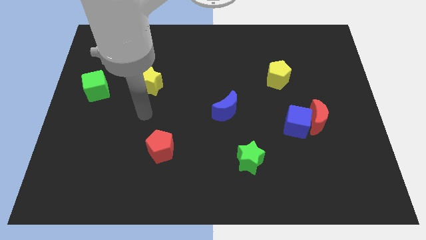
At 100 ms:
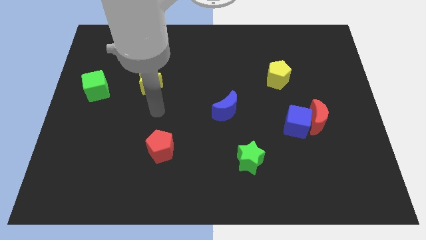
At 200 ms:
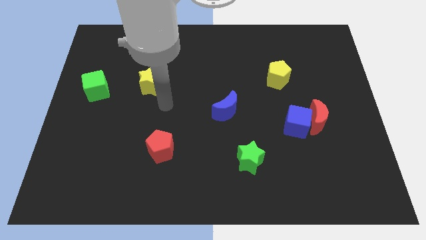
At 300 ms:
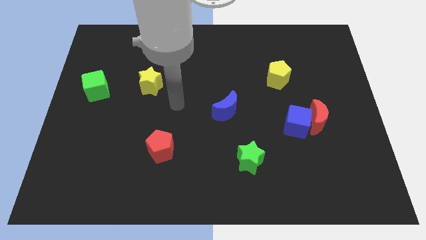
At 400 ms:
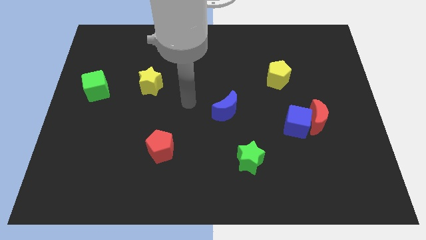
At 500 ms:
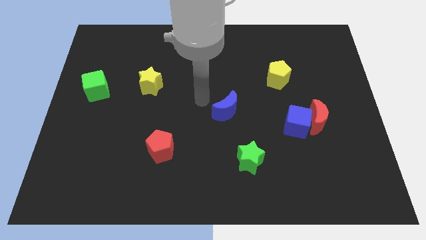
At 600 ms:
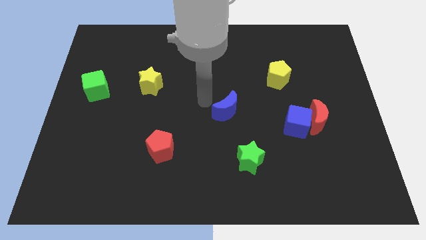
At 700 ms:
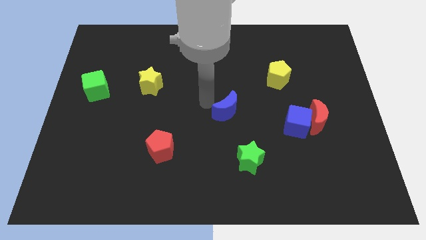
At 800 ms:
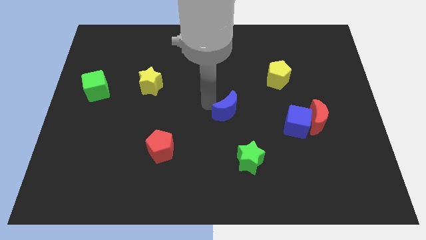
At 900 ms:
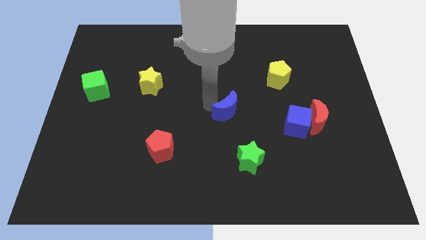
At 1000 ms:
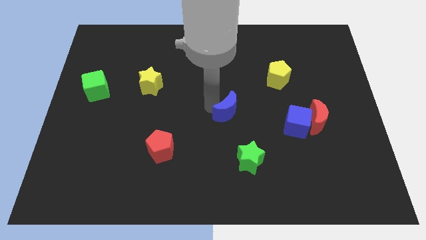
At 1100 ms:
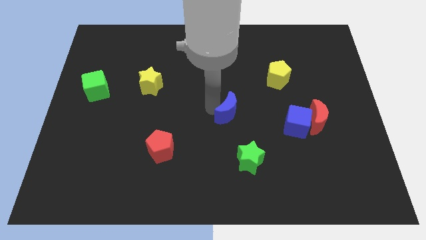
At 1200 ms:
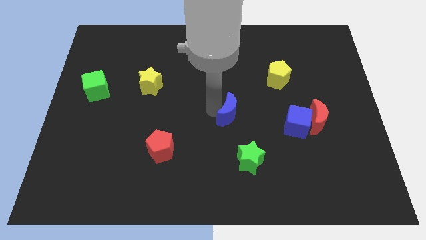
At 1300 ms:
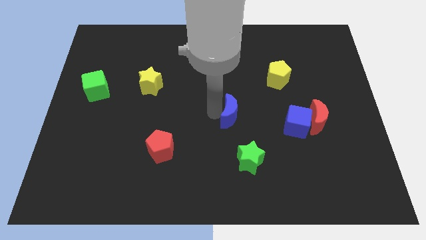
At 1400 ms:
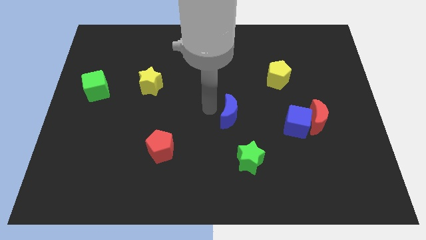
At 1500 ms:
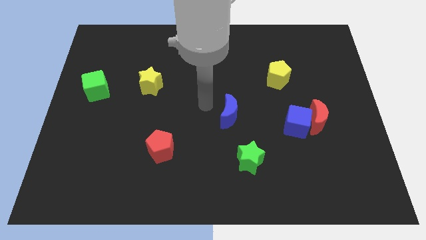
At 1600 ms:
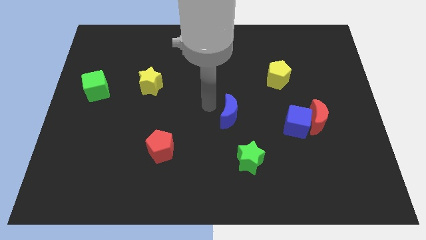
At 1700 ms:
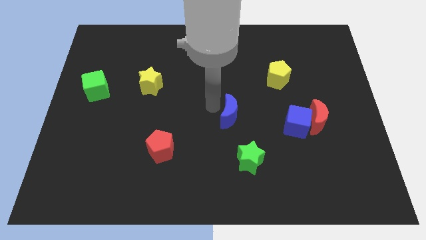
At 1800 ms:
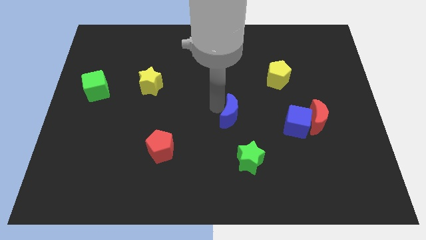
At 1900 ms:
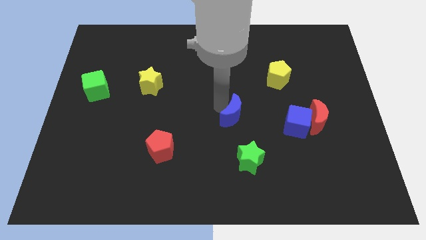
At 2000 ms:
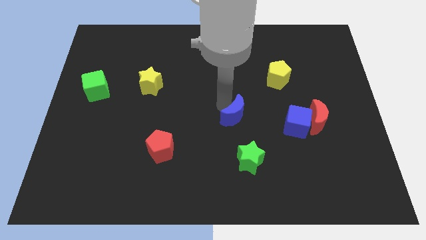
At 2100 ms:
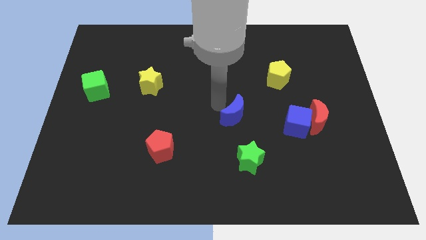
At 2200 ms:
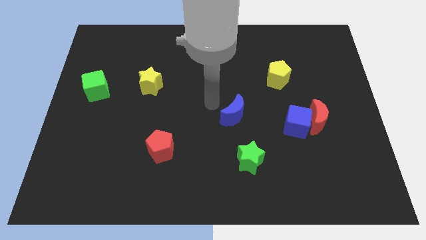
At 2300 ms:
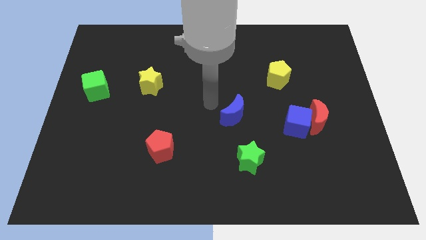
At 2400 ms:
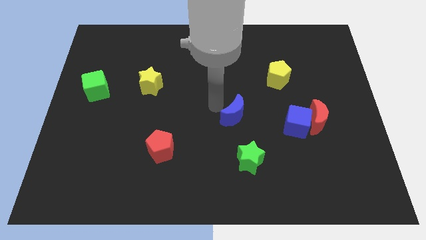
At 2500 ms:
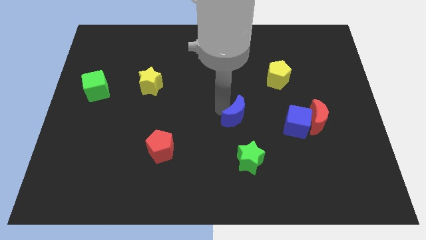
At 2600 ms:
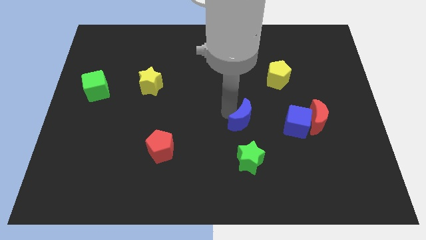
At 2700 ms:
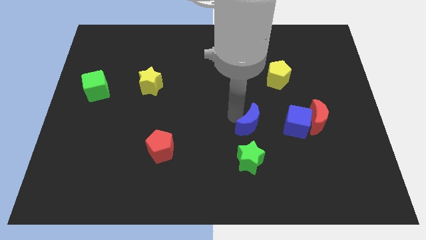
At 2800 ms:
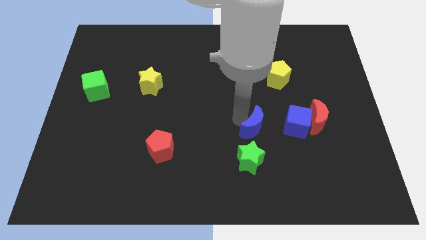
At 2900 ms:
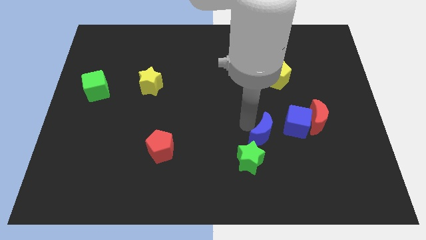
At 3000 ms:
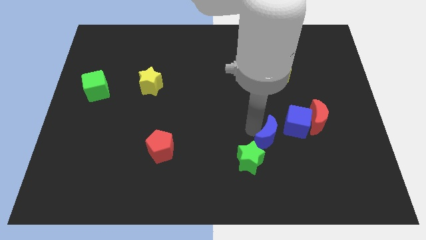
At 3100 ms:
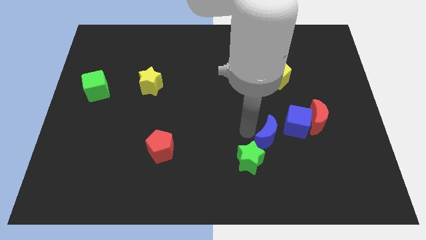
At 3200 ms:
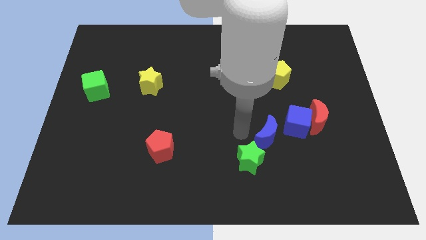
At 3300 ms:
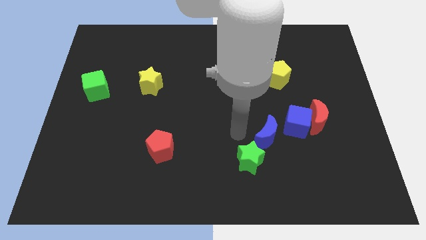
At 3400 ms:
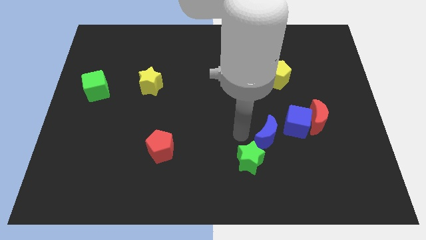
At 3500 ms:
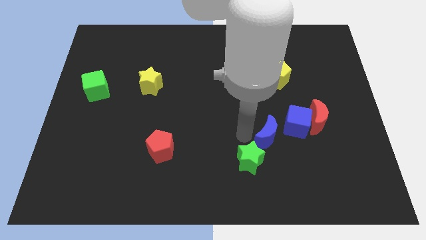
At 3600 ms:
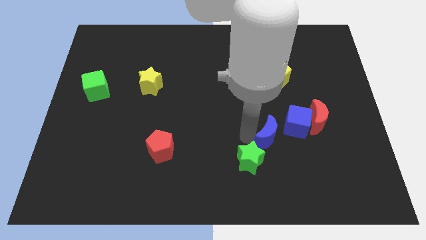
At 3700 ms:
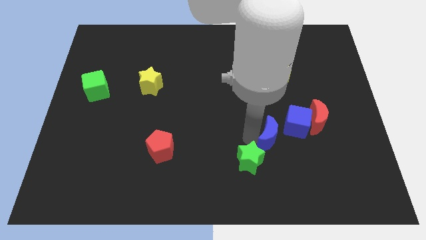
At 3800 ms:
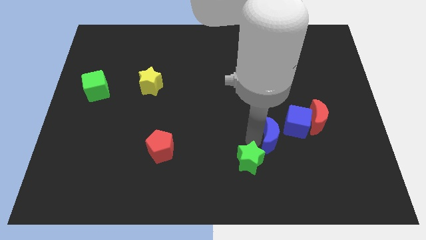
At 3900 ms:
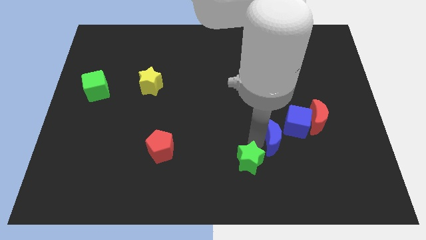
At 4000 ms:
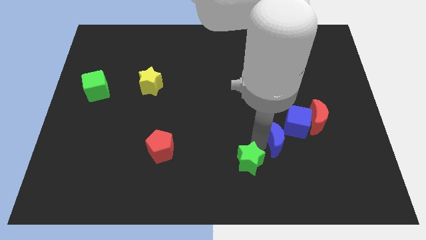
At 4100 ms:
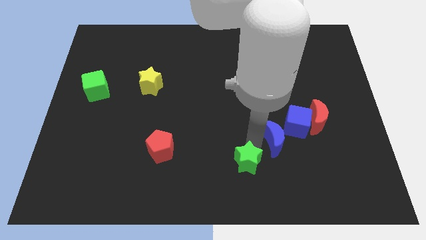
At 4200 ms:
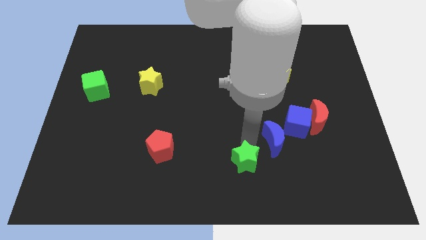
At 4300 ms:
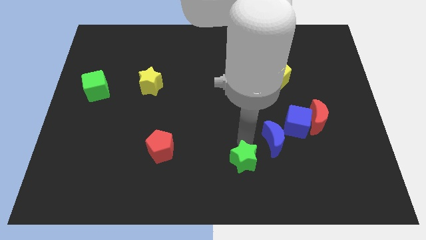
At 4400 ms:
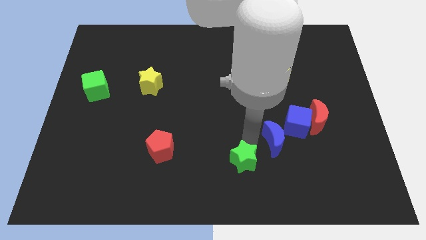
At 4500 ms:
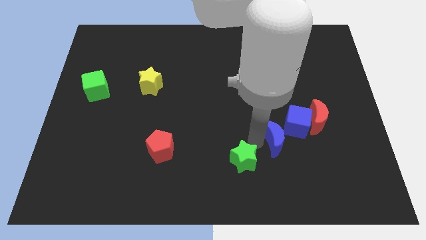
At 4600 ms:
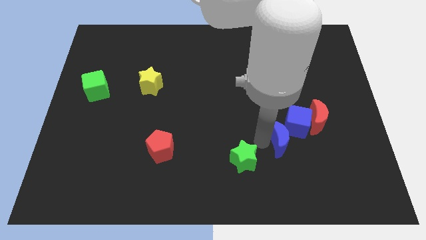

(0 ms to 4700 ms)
slide the blue moon close to the blue cube

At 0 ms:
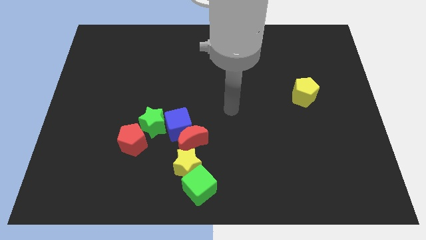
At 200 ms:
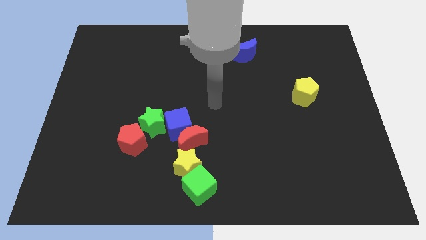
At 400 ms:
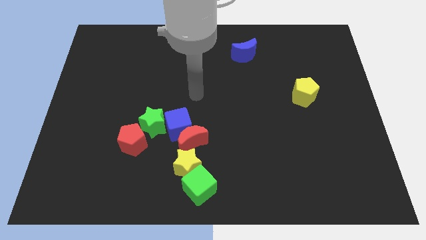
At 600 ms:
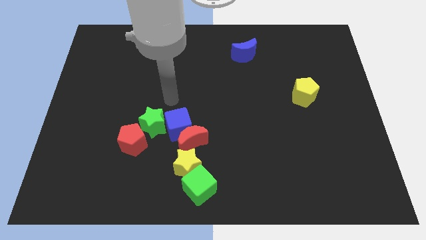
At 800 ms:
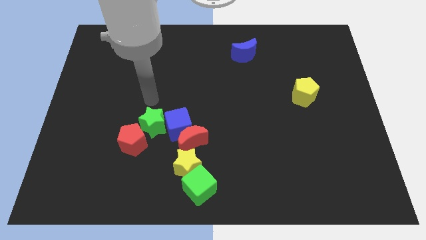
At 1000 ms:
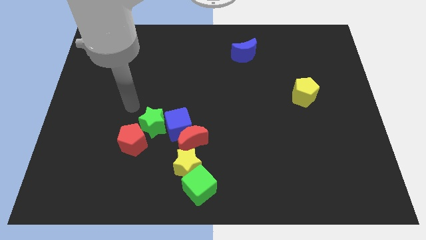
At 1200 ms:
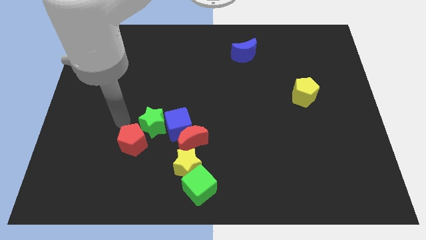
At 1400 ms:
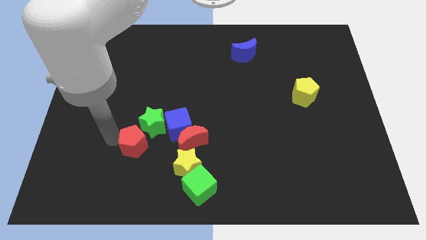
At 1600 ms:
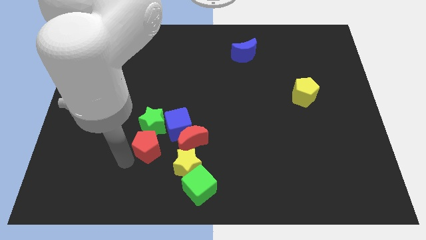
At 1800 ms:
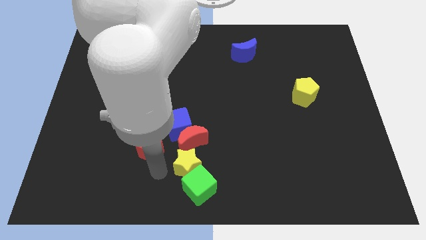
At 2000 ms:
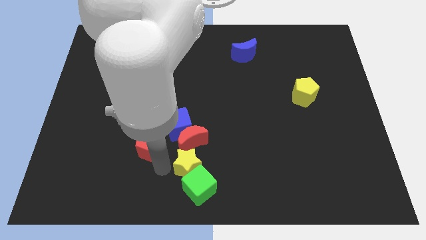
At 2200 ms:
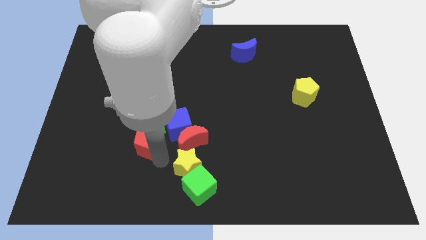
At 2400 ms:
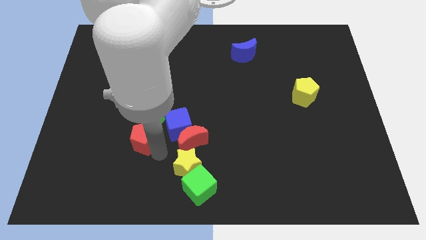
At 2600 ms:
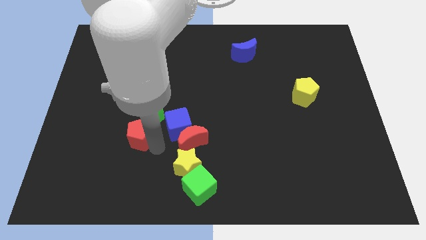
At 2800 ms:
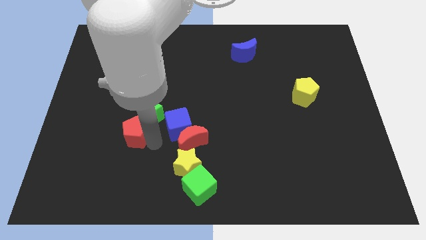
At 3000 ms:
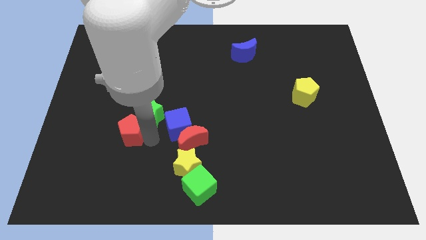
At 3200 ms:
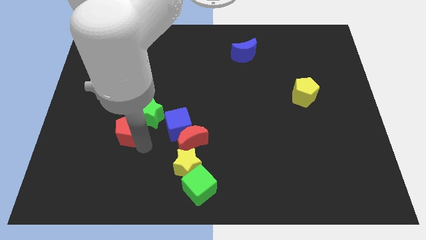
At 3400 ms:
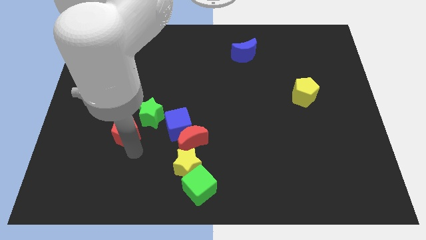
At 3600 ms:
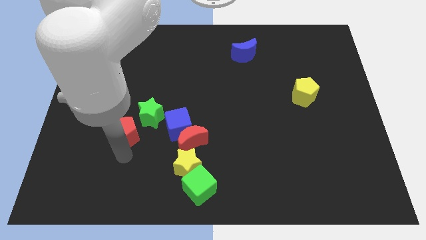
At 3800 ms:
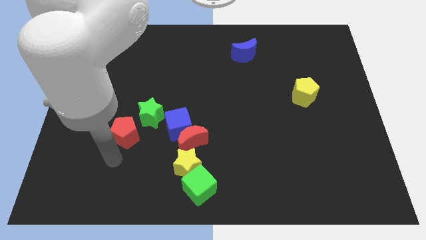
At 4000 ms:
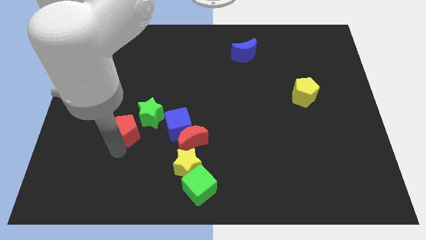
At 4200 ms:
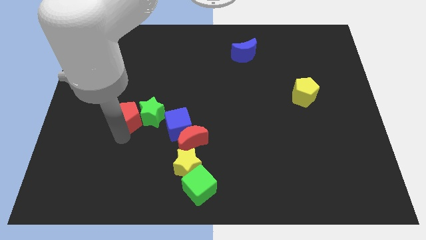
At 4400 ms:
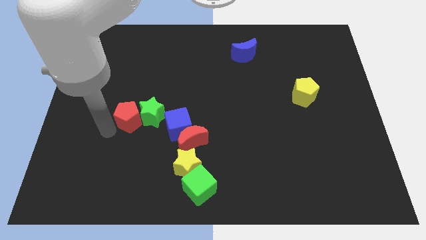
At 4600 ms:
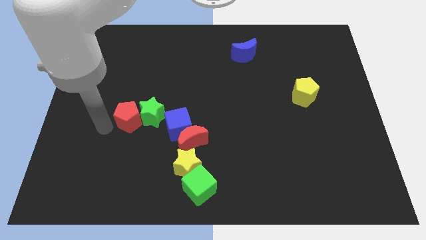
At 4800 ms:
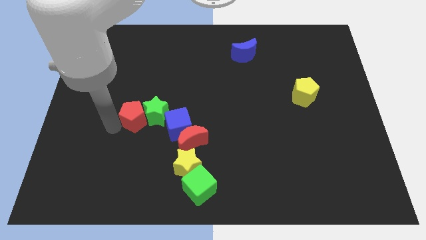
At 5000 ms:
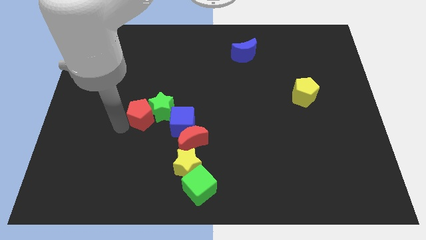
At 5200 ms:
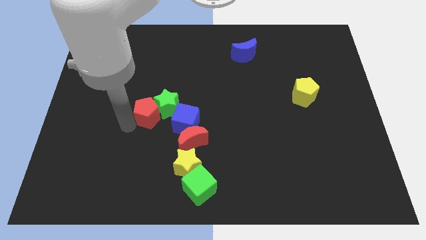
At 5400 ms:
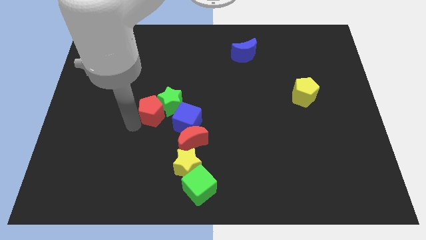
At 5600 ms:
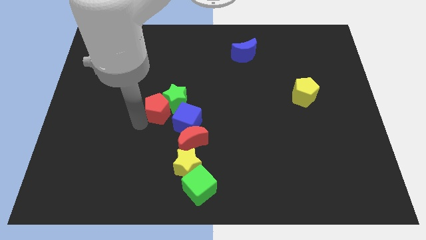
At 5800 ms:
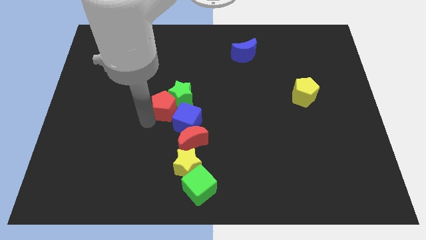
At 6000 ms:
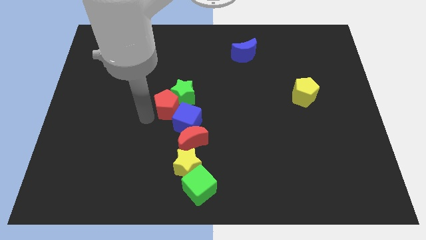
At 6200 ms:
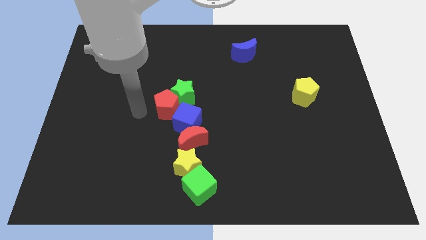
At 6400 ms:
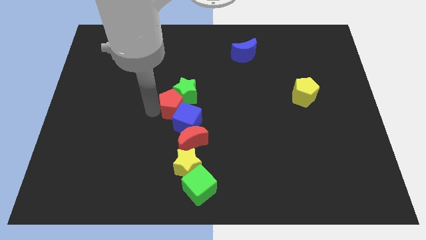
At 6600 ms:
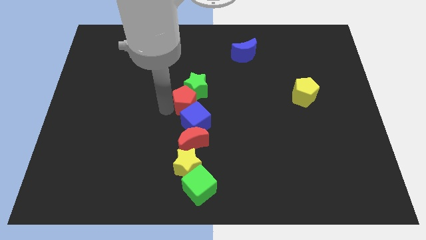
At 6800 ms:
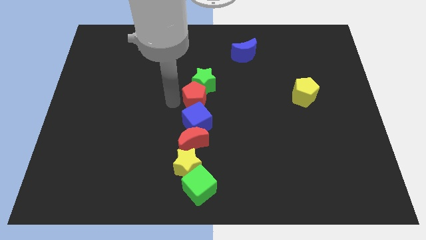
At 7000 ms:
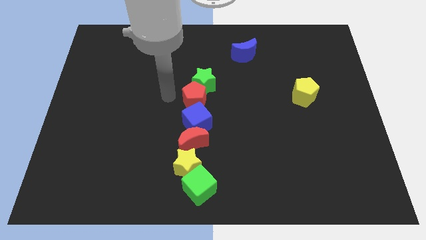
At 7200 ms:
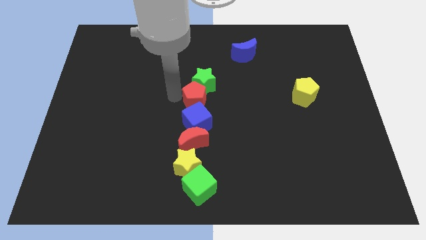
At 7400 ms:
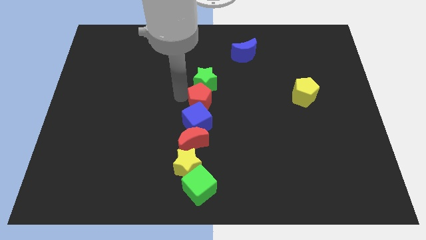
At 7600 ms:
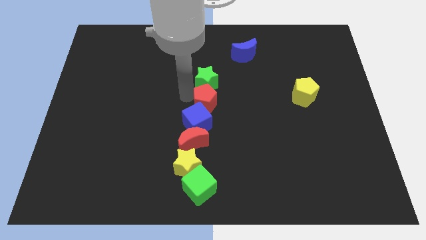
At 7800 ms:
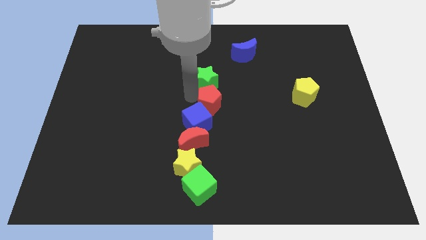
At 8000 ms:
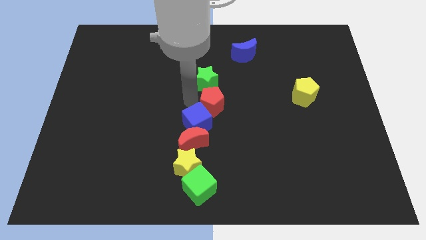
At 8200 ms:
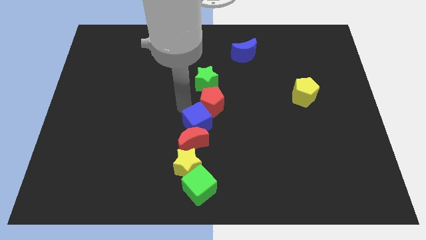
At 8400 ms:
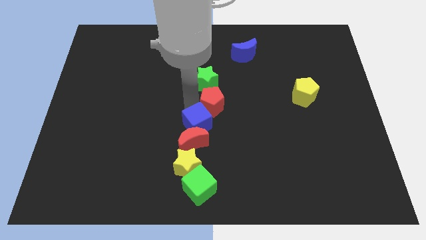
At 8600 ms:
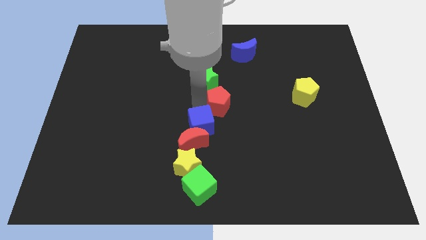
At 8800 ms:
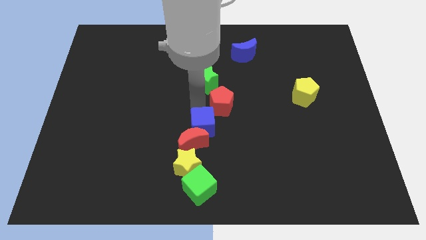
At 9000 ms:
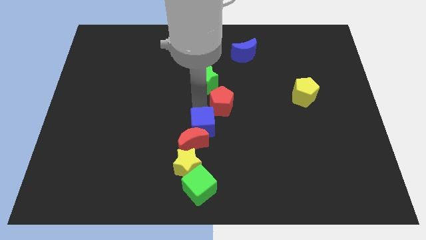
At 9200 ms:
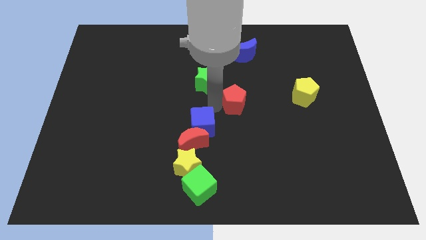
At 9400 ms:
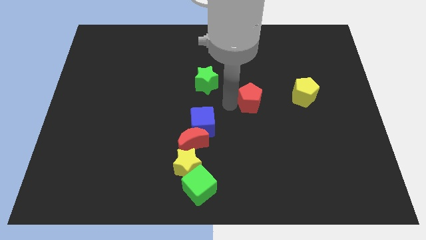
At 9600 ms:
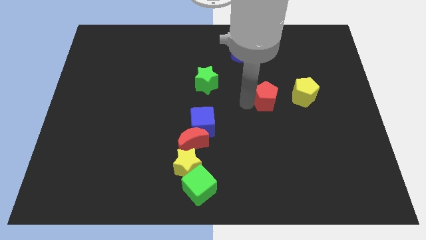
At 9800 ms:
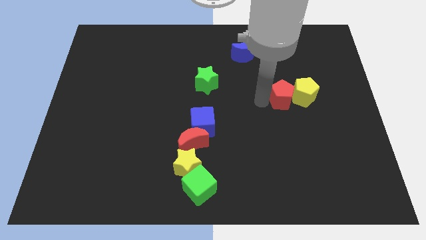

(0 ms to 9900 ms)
move the red pentagon to the yellow pentagon
